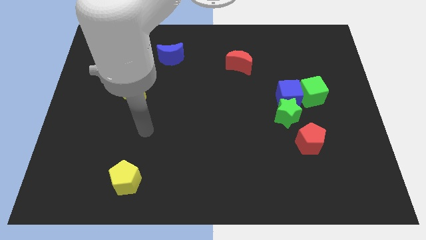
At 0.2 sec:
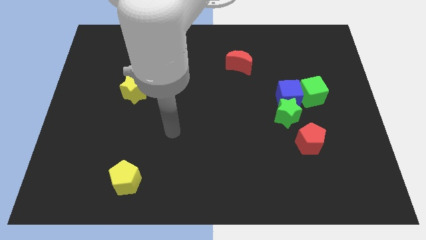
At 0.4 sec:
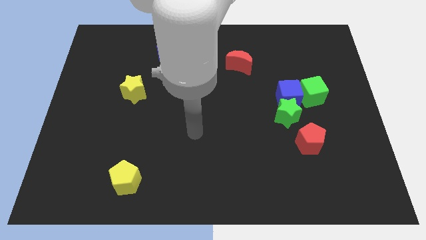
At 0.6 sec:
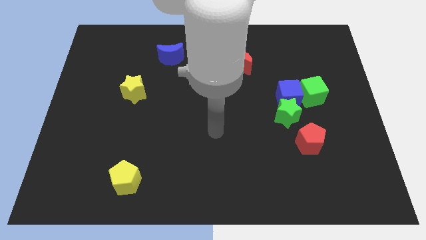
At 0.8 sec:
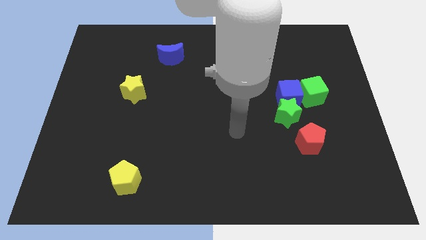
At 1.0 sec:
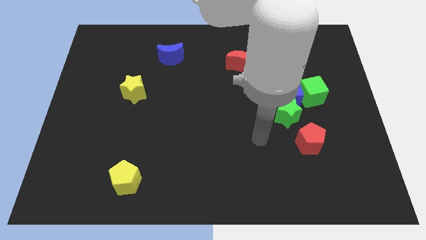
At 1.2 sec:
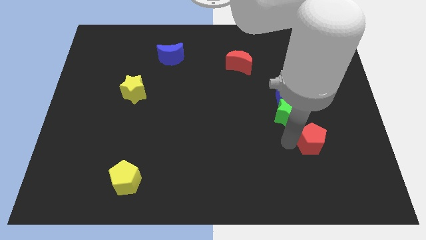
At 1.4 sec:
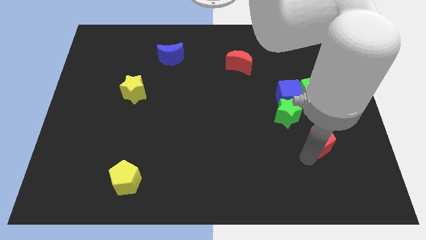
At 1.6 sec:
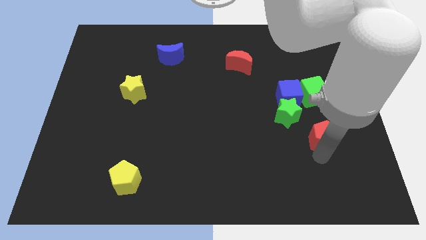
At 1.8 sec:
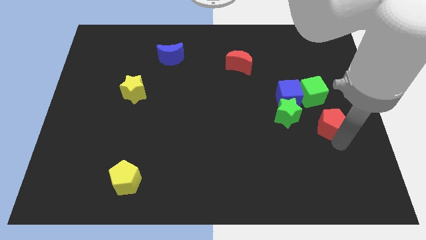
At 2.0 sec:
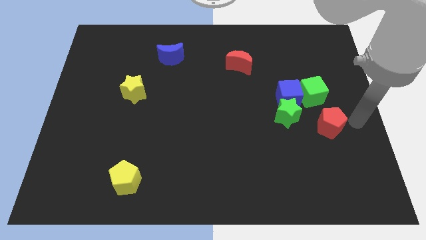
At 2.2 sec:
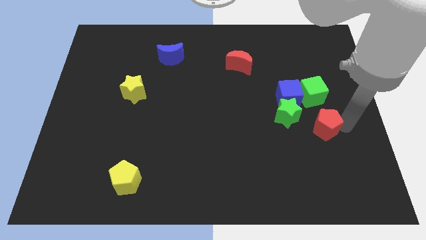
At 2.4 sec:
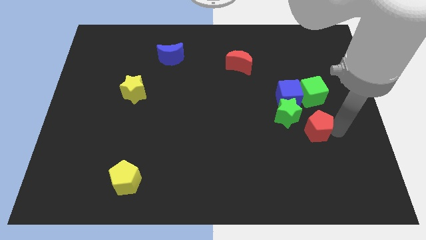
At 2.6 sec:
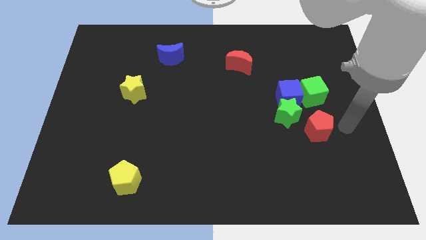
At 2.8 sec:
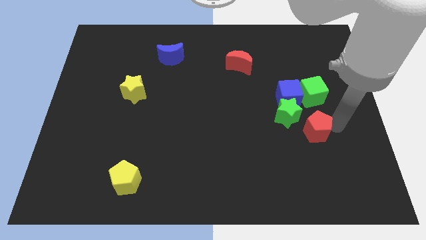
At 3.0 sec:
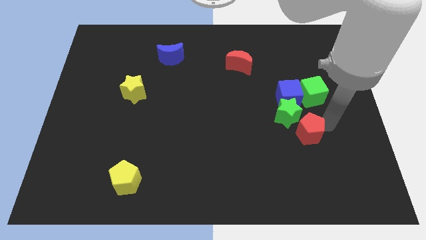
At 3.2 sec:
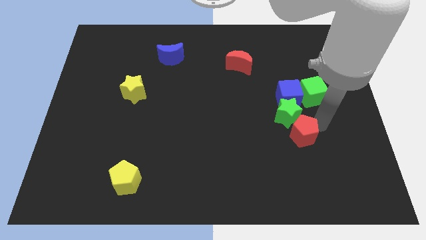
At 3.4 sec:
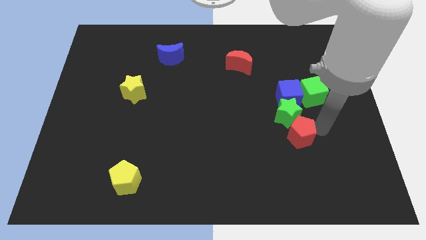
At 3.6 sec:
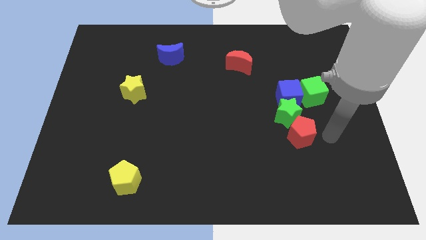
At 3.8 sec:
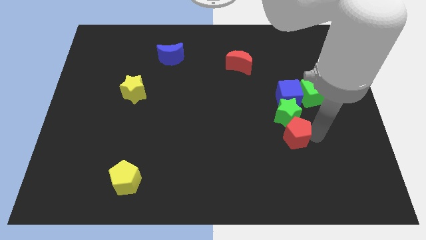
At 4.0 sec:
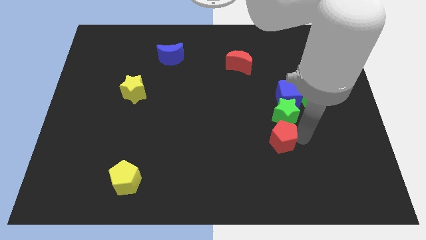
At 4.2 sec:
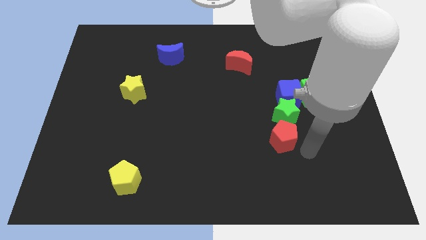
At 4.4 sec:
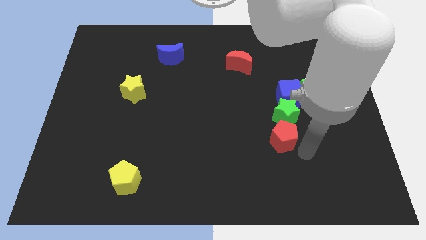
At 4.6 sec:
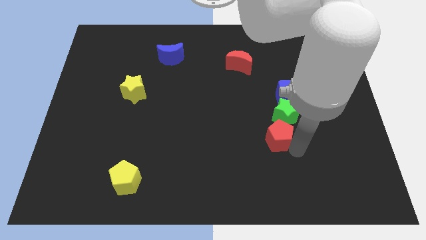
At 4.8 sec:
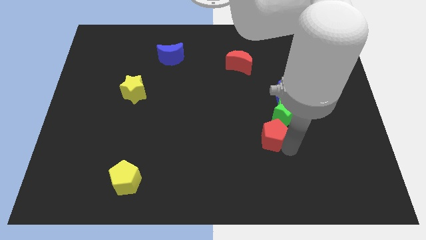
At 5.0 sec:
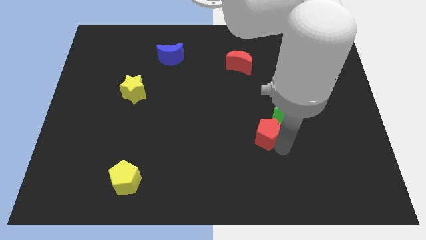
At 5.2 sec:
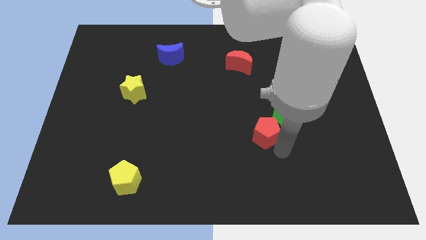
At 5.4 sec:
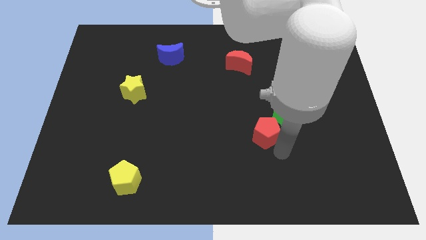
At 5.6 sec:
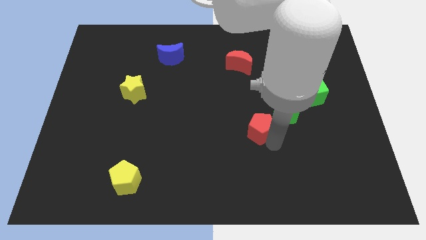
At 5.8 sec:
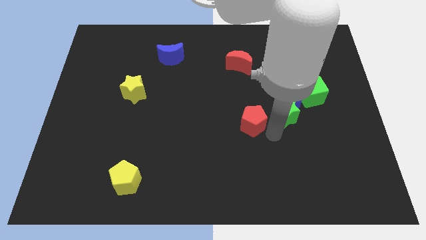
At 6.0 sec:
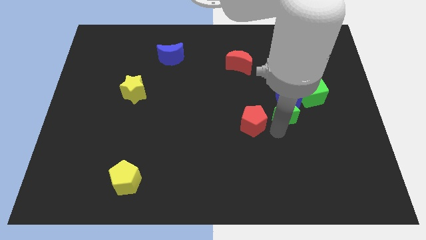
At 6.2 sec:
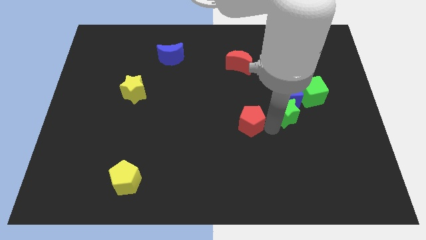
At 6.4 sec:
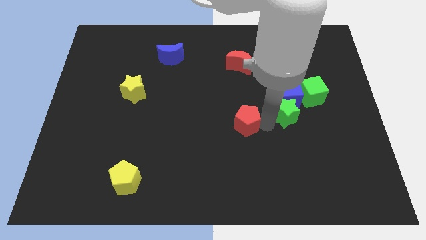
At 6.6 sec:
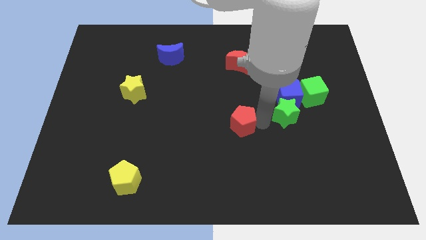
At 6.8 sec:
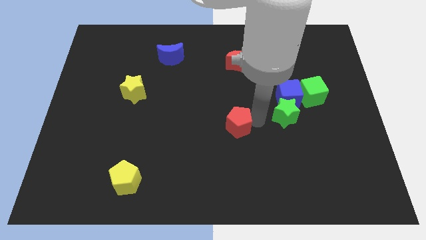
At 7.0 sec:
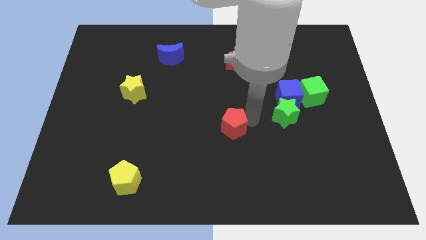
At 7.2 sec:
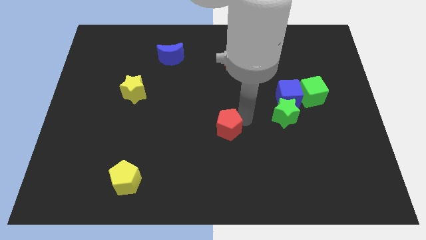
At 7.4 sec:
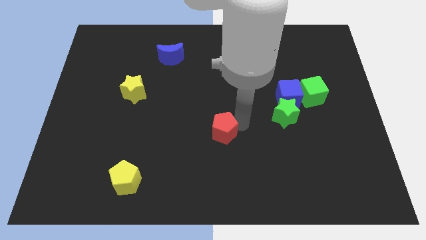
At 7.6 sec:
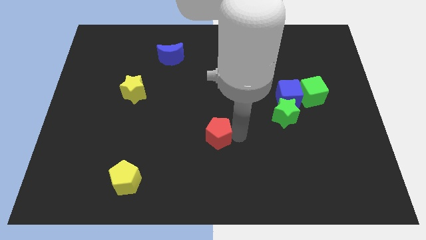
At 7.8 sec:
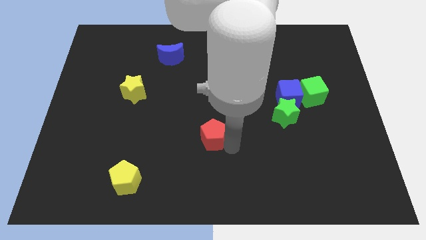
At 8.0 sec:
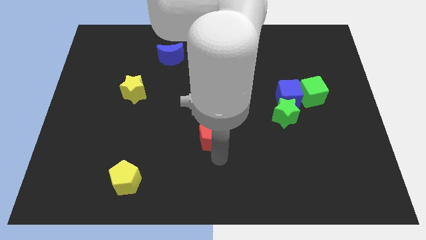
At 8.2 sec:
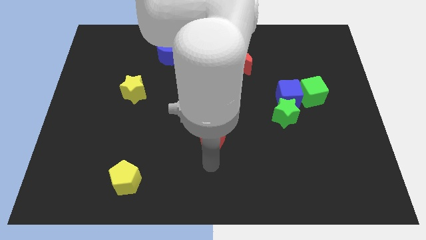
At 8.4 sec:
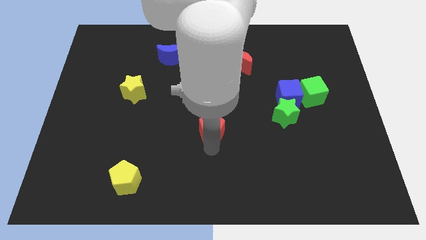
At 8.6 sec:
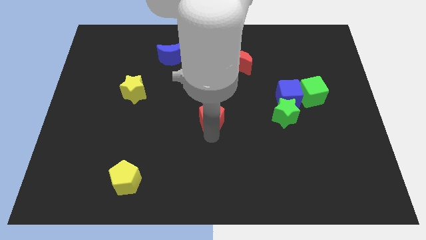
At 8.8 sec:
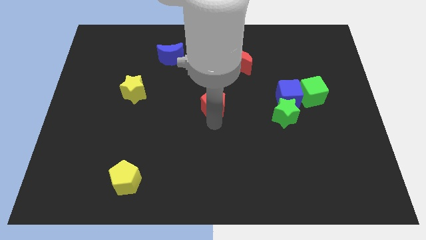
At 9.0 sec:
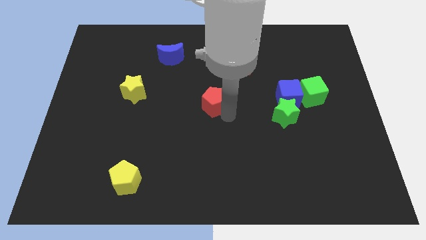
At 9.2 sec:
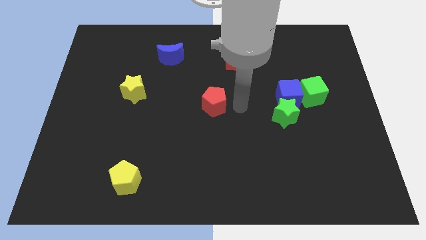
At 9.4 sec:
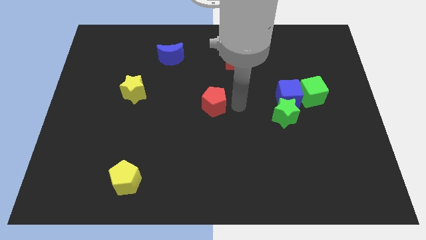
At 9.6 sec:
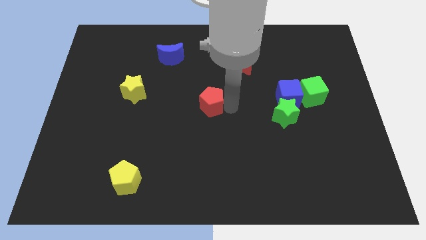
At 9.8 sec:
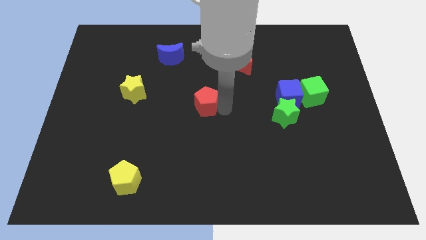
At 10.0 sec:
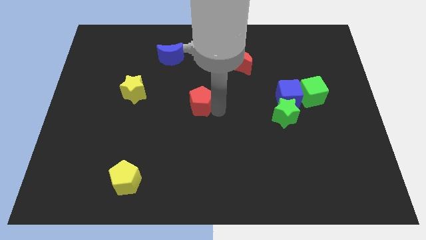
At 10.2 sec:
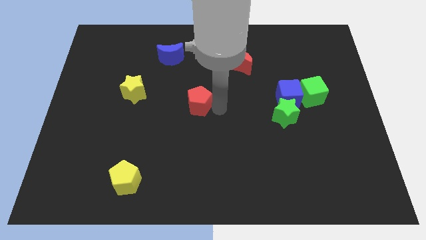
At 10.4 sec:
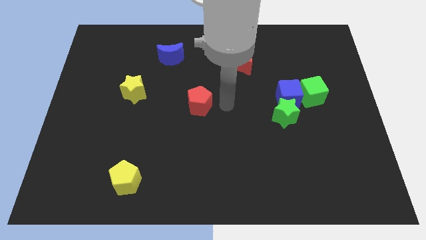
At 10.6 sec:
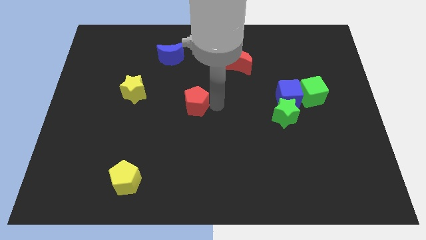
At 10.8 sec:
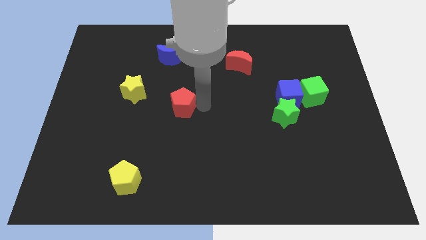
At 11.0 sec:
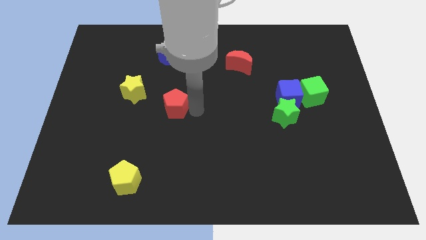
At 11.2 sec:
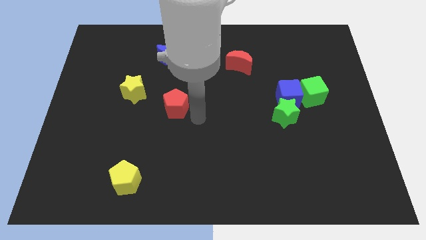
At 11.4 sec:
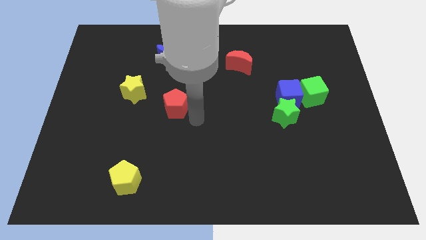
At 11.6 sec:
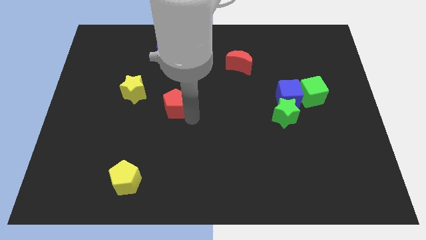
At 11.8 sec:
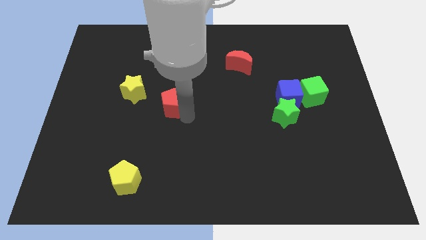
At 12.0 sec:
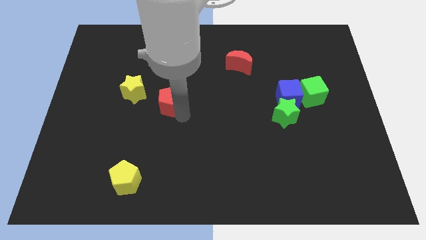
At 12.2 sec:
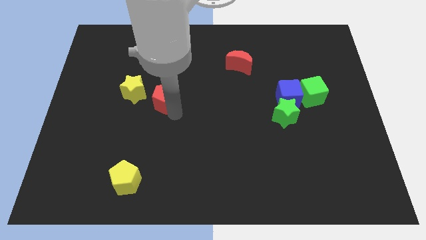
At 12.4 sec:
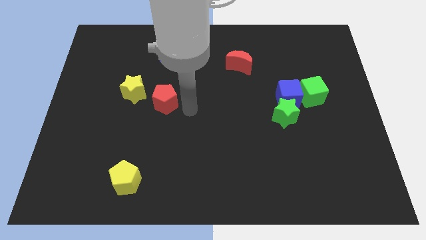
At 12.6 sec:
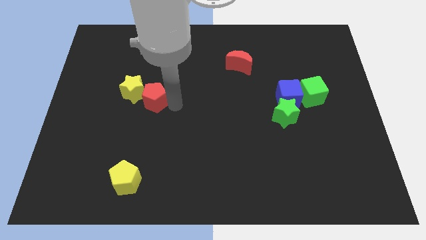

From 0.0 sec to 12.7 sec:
put the red pentagon close to the yellow star

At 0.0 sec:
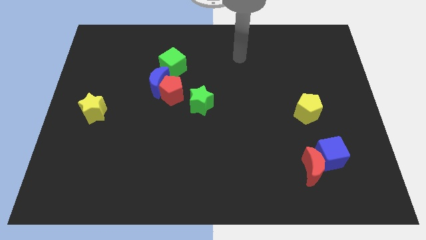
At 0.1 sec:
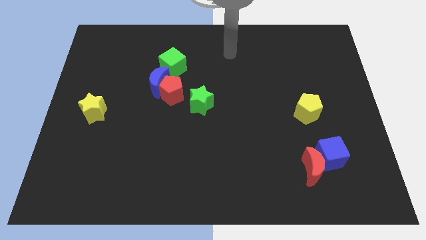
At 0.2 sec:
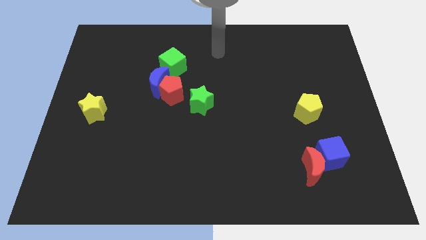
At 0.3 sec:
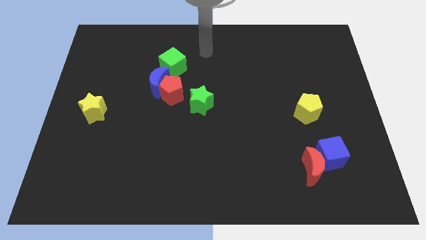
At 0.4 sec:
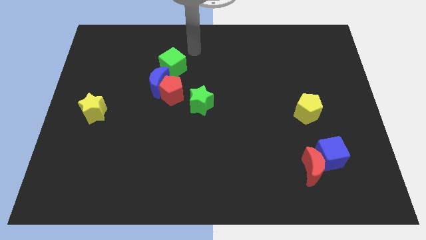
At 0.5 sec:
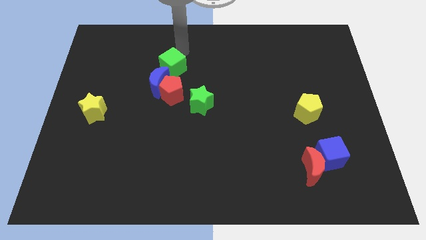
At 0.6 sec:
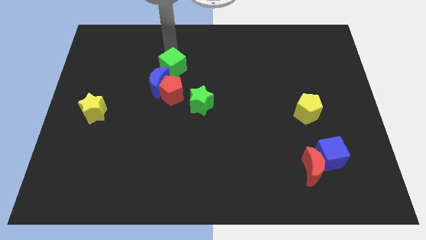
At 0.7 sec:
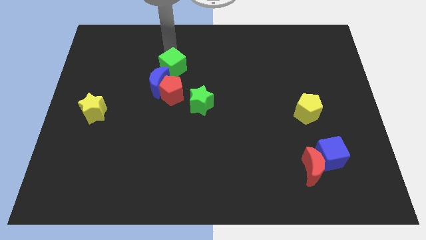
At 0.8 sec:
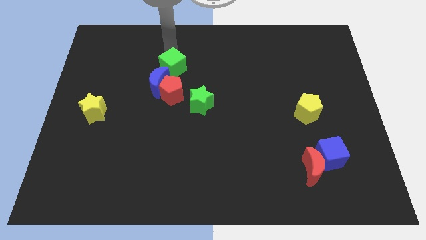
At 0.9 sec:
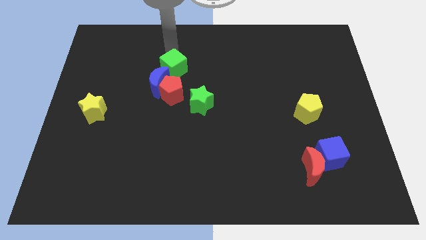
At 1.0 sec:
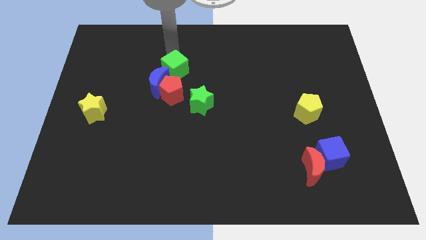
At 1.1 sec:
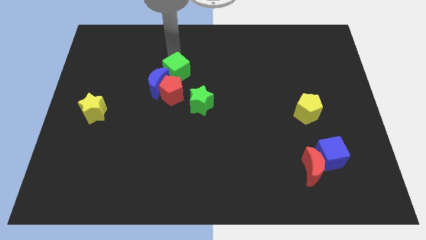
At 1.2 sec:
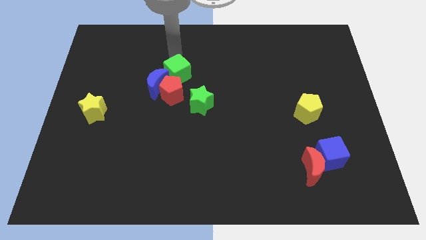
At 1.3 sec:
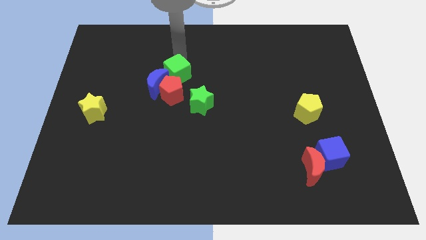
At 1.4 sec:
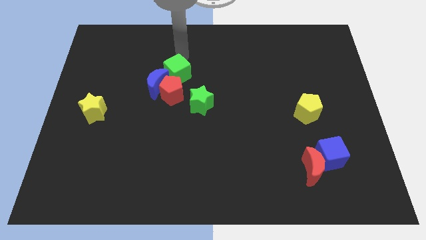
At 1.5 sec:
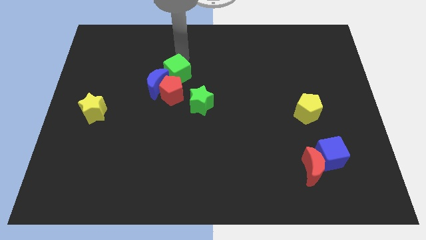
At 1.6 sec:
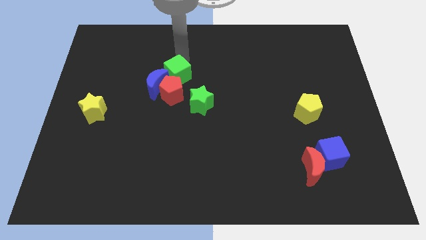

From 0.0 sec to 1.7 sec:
put the green cube towards the red pentagon
